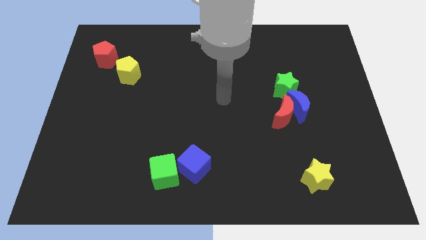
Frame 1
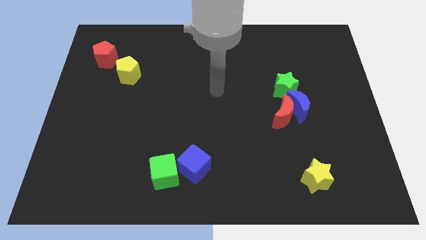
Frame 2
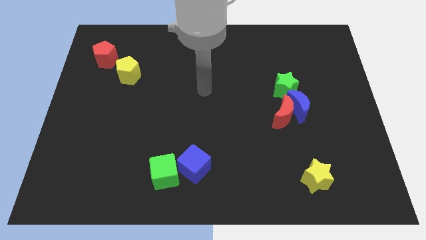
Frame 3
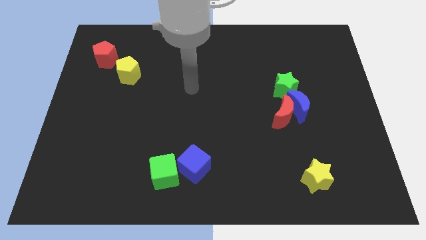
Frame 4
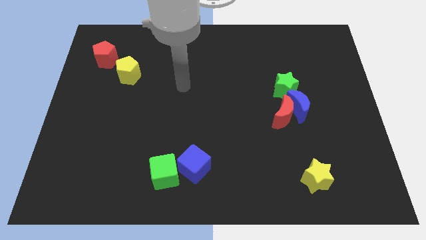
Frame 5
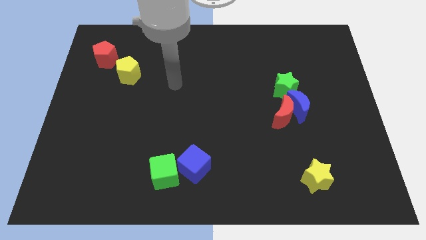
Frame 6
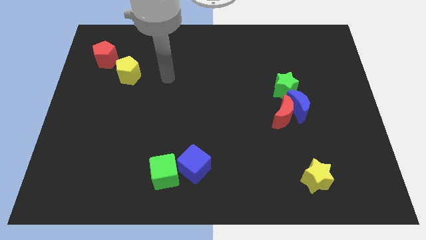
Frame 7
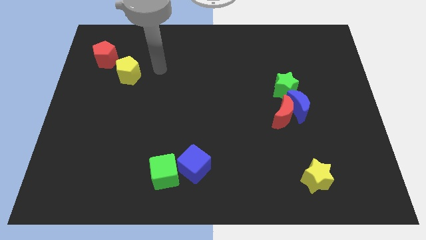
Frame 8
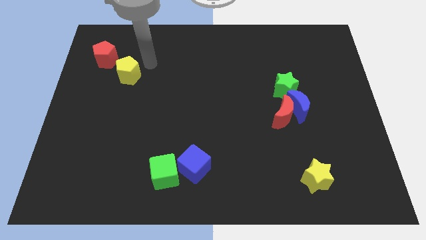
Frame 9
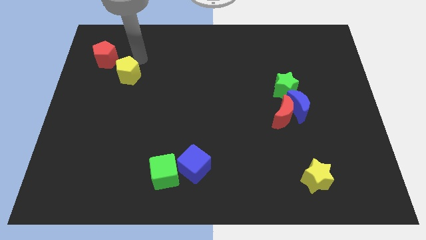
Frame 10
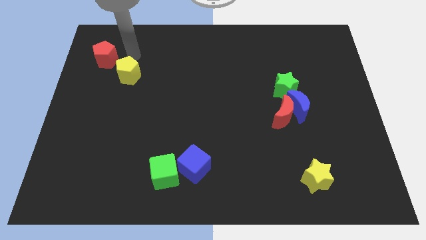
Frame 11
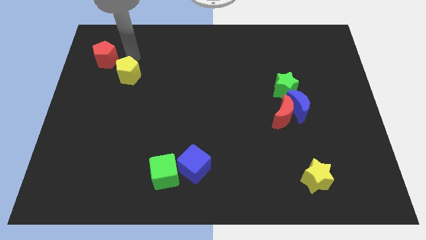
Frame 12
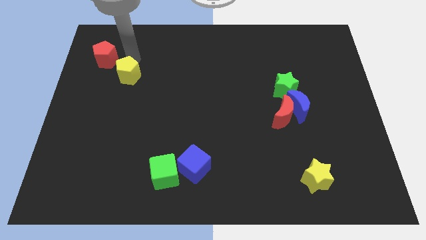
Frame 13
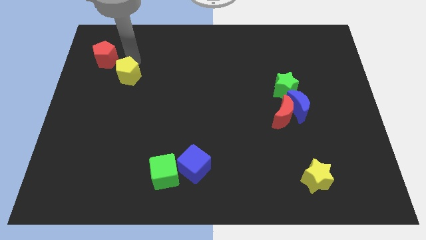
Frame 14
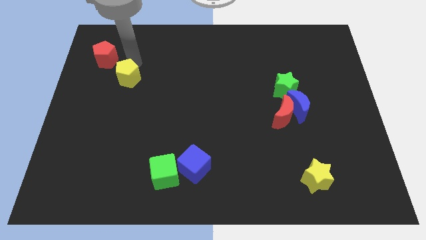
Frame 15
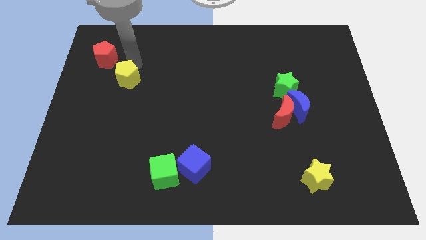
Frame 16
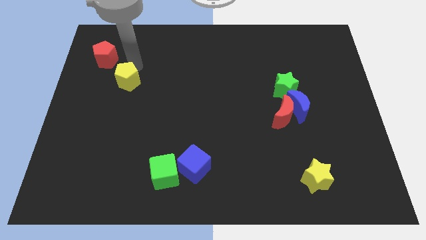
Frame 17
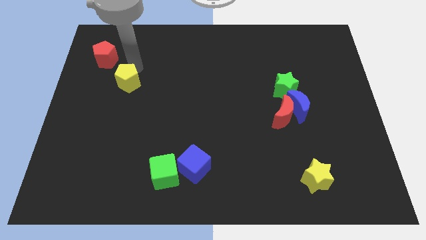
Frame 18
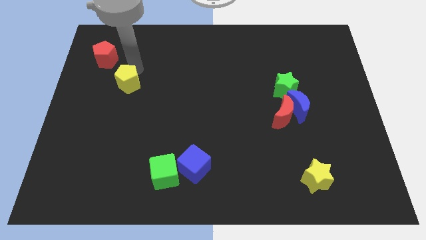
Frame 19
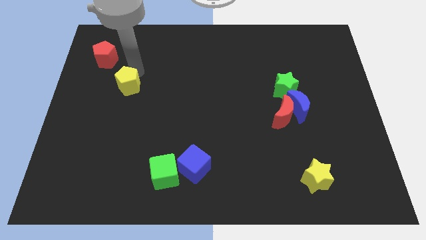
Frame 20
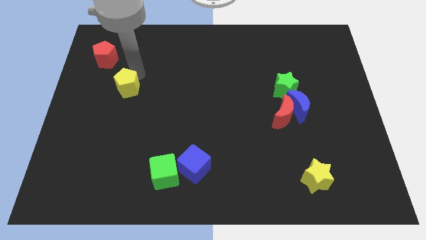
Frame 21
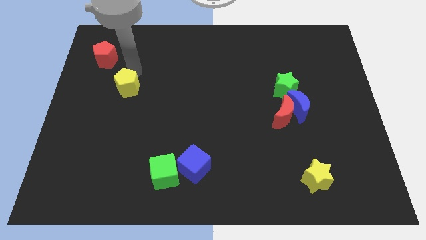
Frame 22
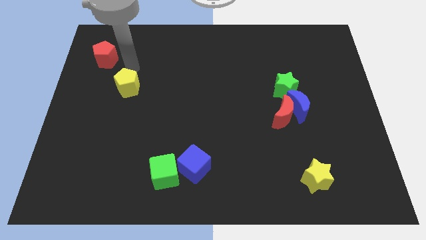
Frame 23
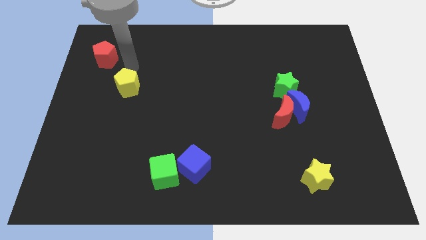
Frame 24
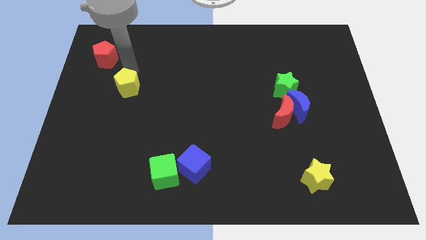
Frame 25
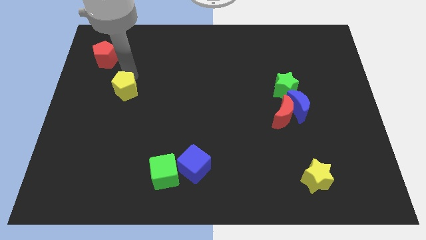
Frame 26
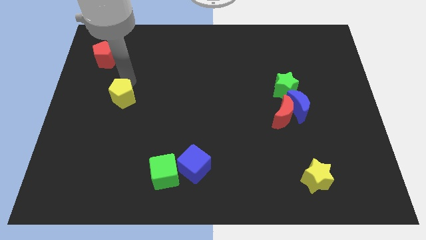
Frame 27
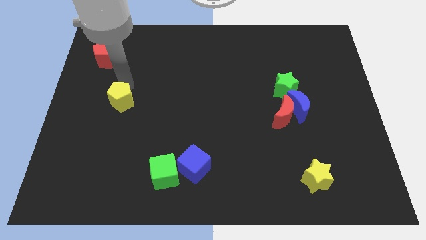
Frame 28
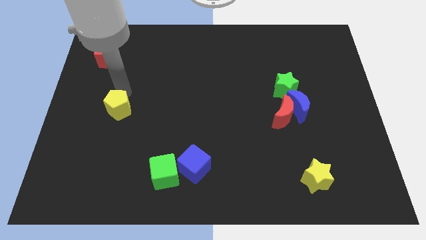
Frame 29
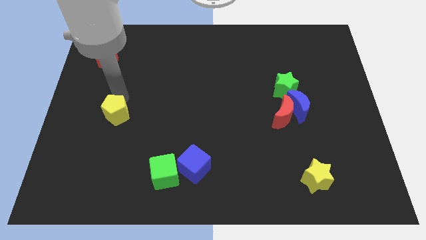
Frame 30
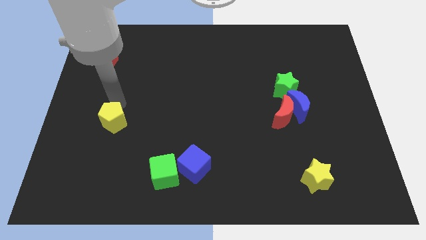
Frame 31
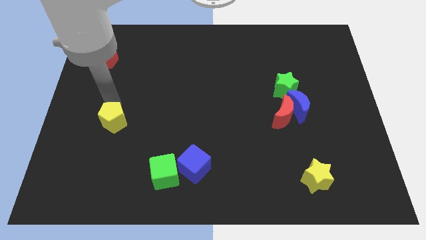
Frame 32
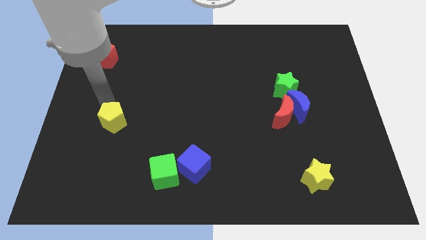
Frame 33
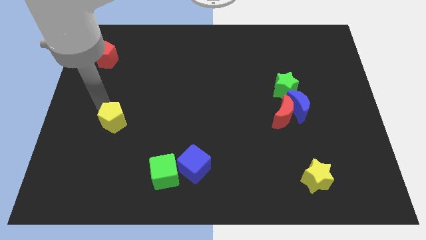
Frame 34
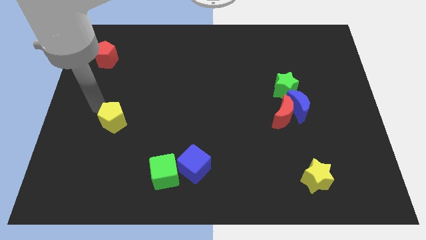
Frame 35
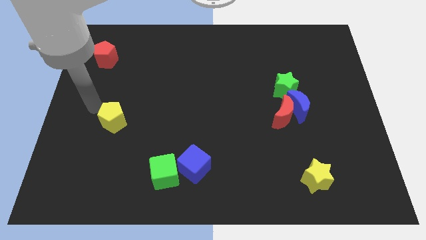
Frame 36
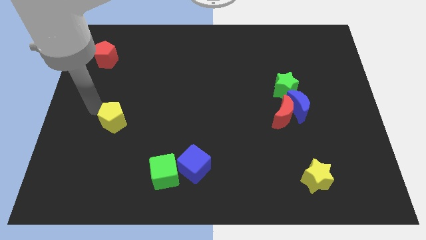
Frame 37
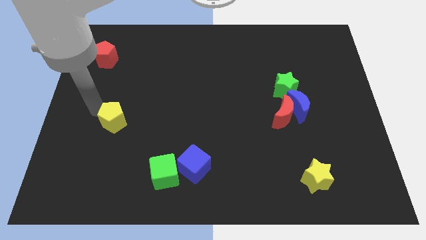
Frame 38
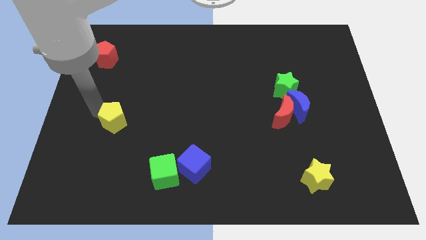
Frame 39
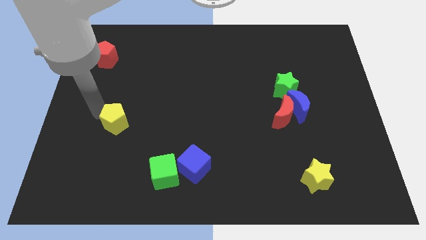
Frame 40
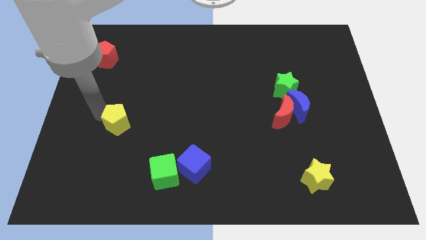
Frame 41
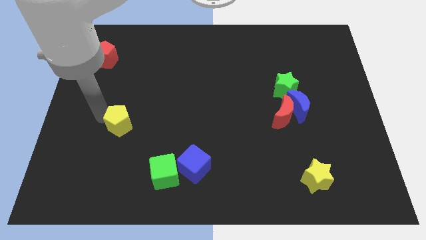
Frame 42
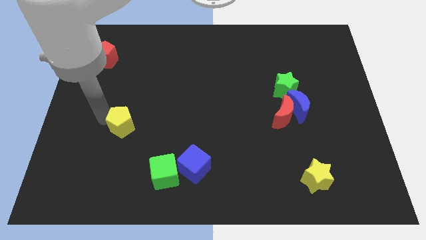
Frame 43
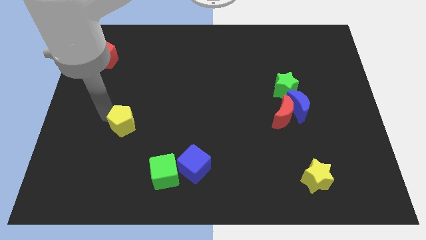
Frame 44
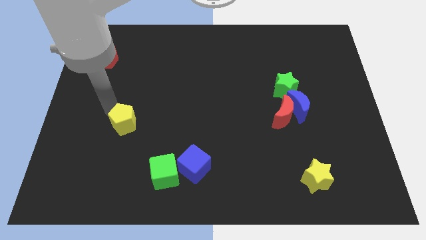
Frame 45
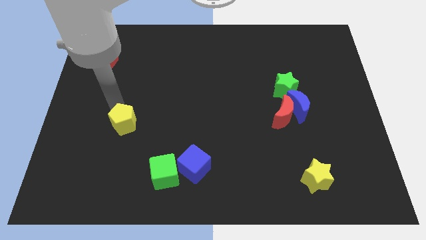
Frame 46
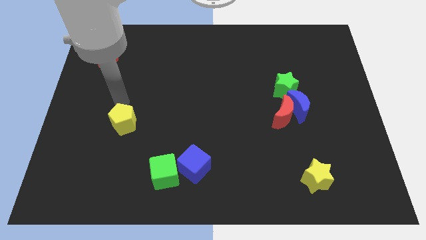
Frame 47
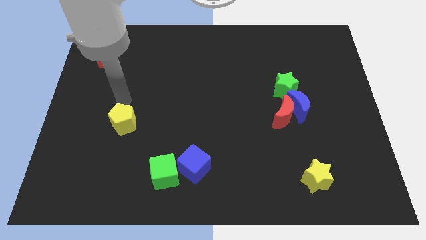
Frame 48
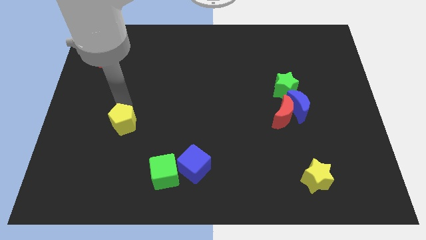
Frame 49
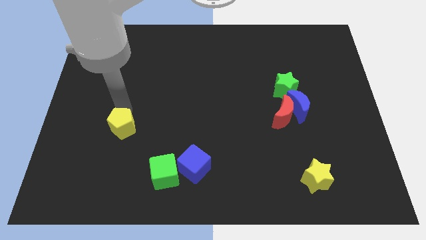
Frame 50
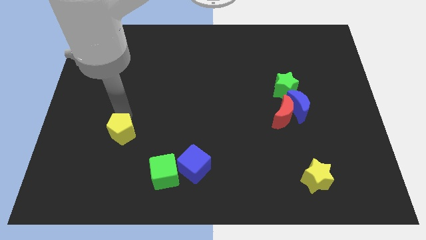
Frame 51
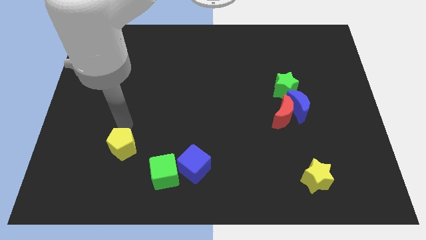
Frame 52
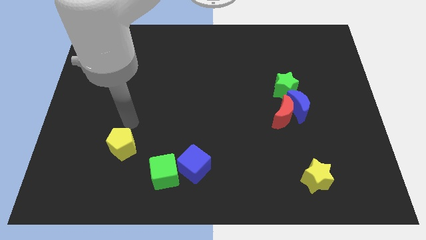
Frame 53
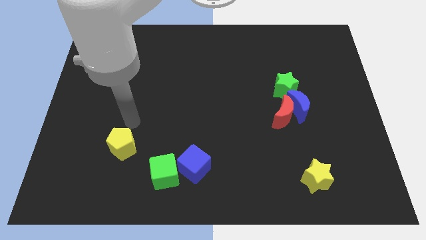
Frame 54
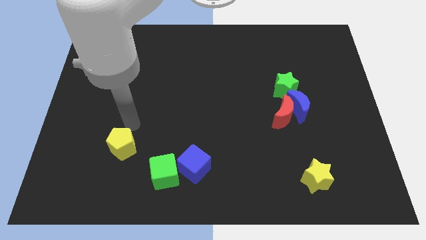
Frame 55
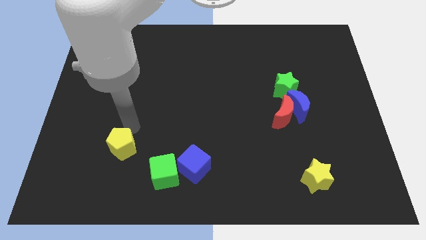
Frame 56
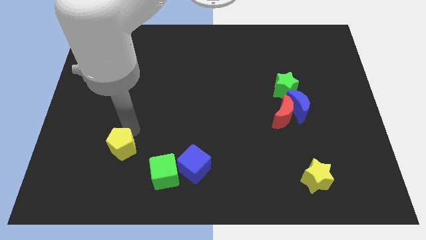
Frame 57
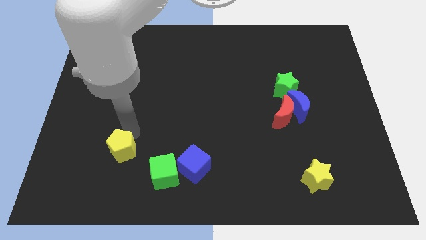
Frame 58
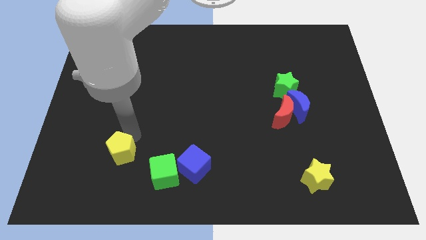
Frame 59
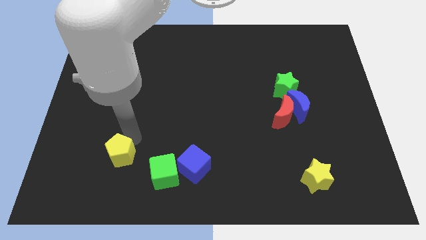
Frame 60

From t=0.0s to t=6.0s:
slide the yellow pentagon left of the green cube
